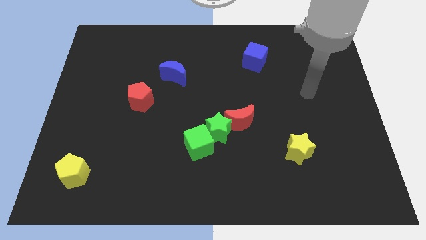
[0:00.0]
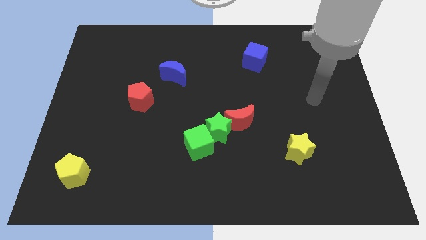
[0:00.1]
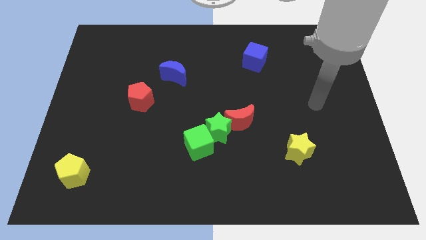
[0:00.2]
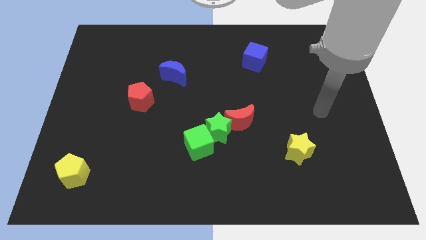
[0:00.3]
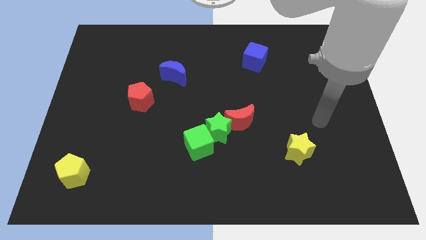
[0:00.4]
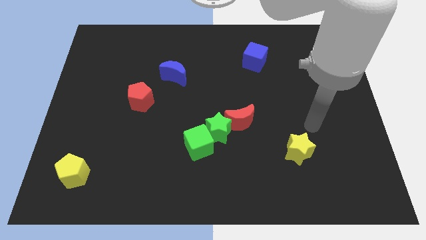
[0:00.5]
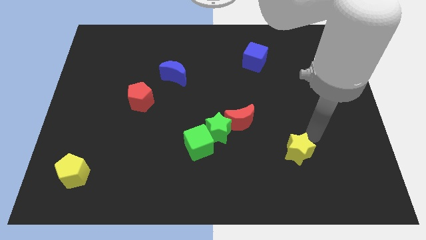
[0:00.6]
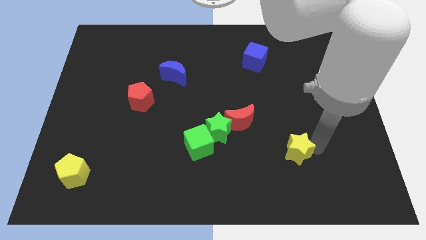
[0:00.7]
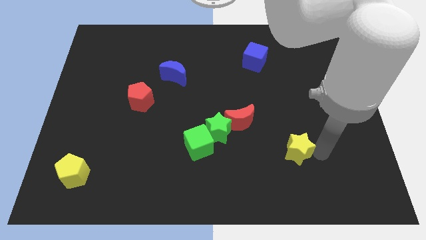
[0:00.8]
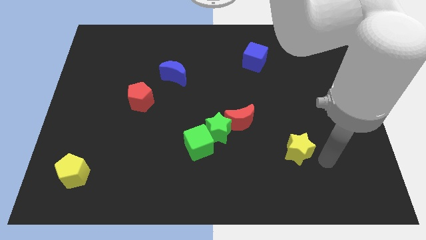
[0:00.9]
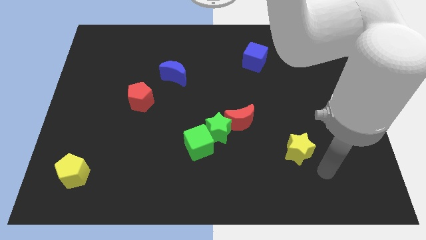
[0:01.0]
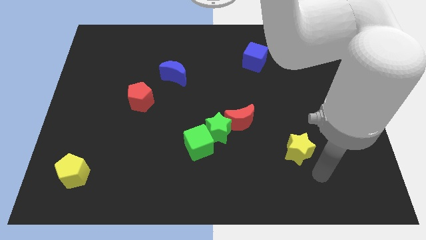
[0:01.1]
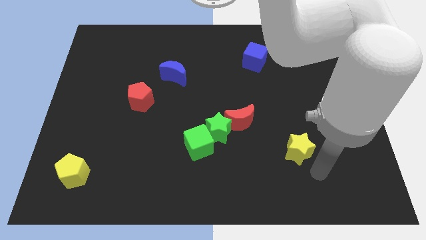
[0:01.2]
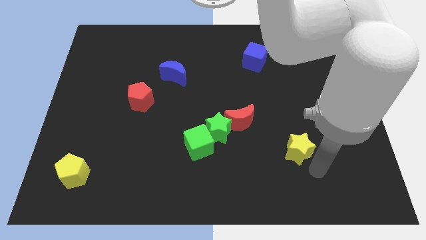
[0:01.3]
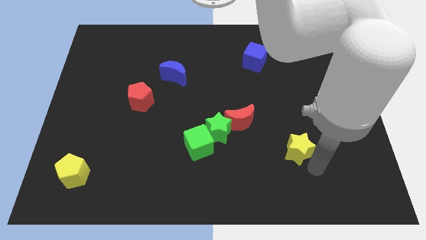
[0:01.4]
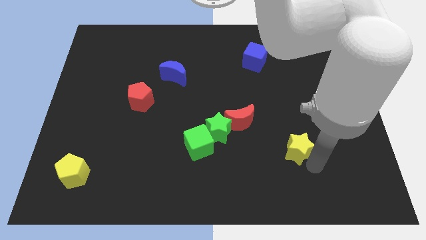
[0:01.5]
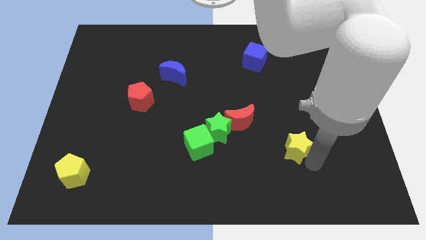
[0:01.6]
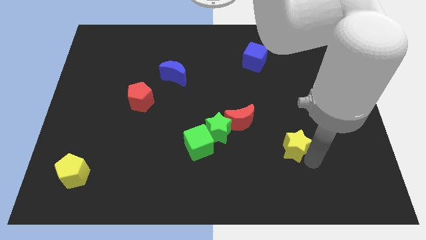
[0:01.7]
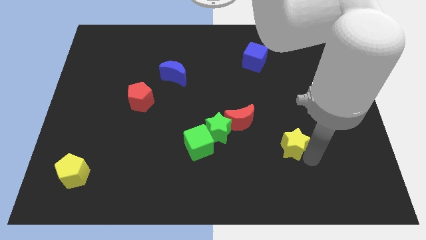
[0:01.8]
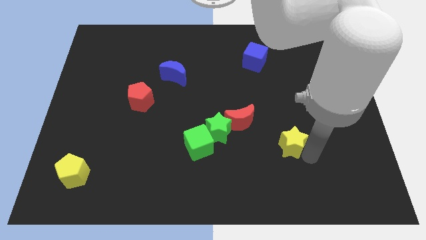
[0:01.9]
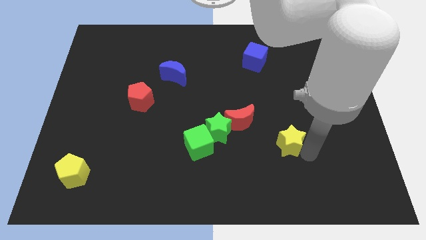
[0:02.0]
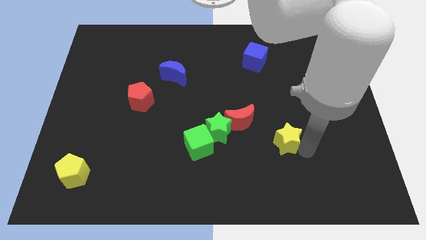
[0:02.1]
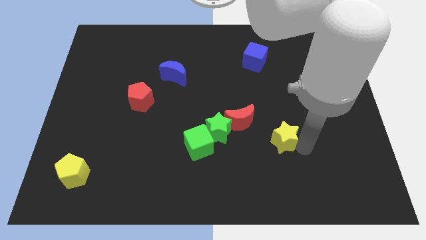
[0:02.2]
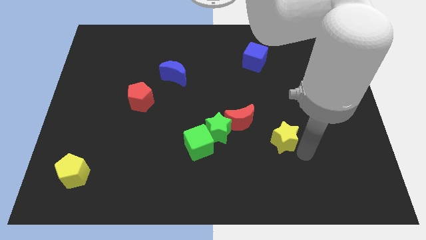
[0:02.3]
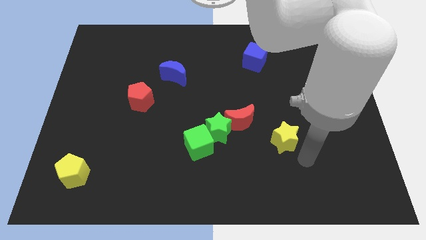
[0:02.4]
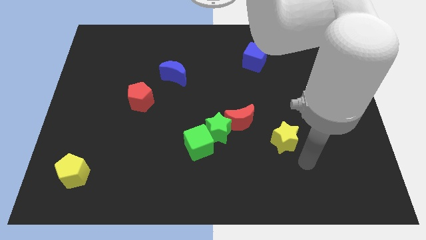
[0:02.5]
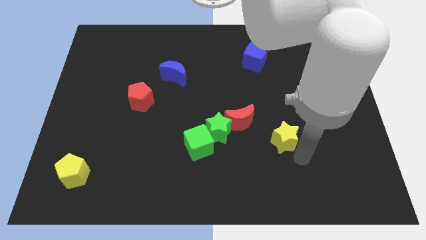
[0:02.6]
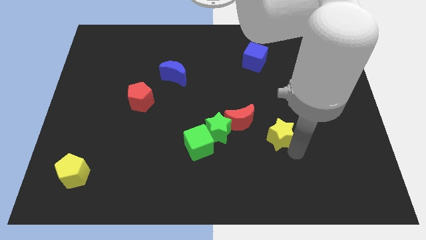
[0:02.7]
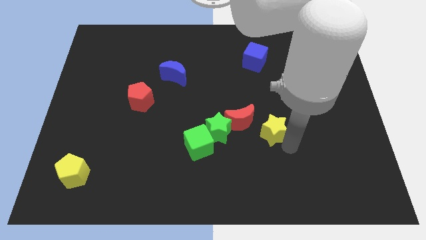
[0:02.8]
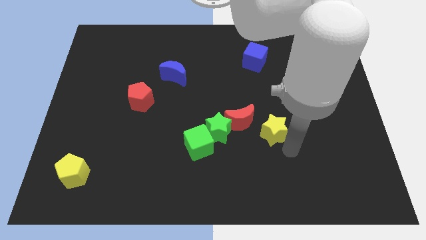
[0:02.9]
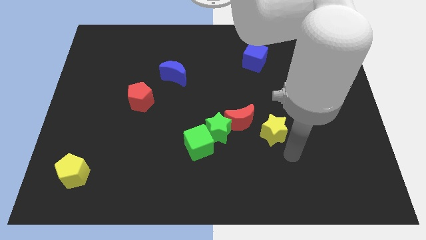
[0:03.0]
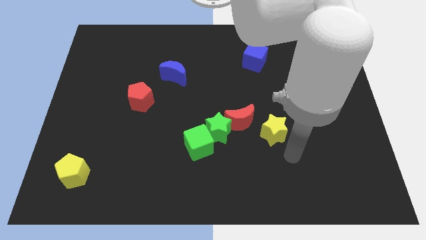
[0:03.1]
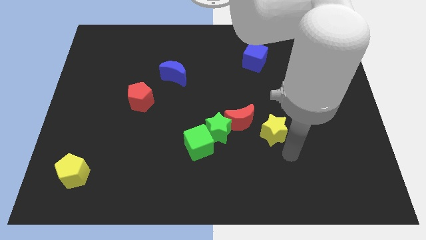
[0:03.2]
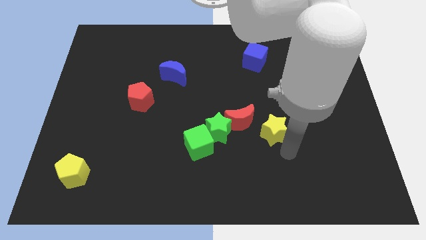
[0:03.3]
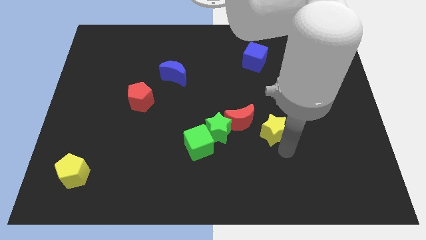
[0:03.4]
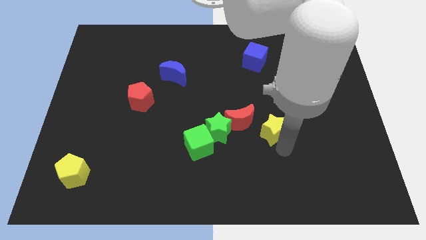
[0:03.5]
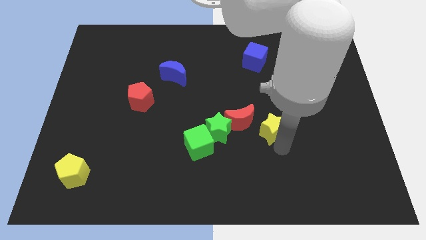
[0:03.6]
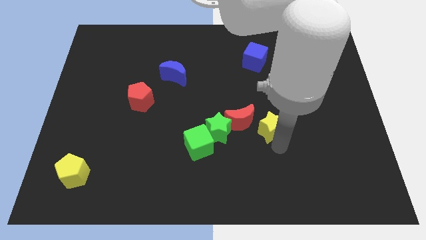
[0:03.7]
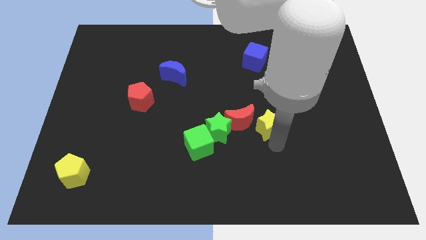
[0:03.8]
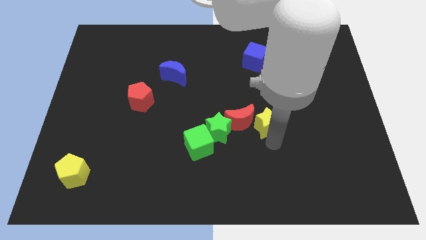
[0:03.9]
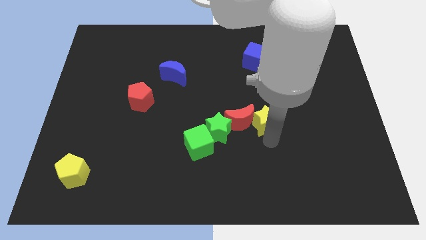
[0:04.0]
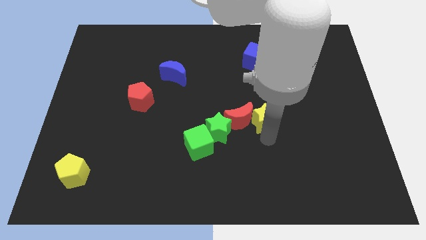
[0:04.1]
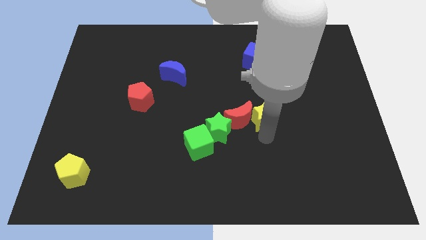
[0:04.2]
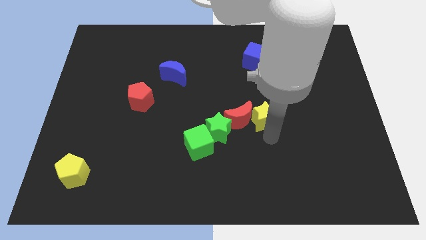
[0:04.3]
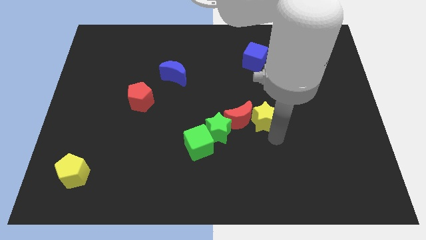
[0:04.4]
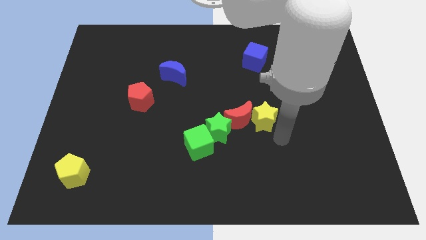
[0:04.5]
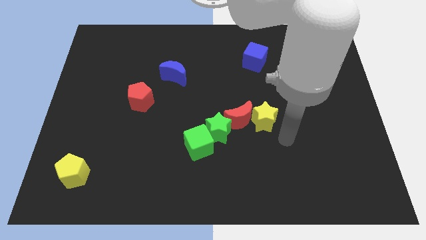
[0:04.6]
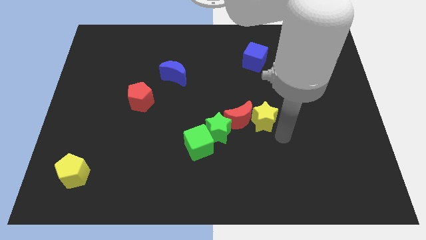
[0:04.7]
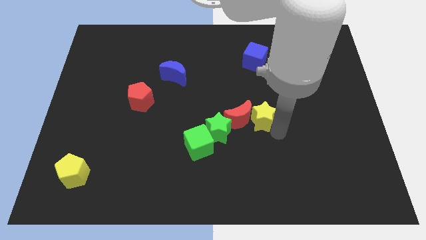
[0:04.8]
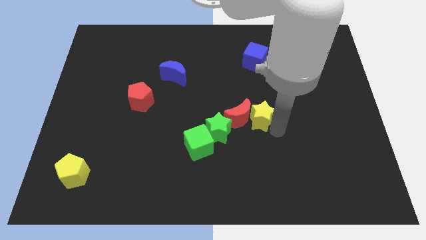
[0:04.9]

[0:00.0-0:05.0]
put the yellow star to the center of the board

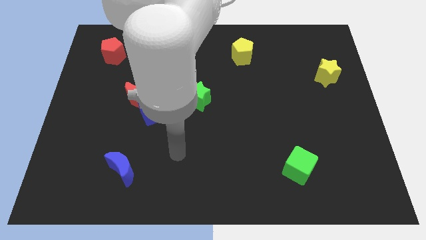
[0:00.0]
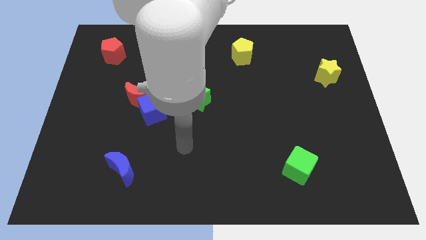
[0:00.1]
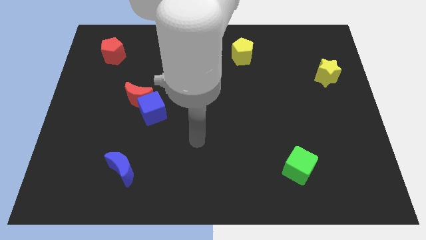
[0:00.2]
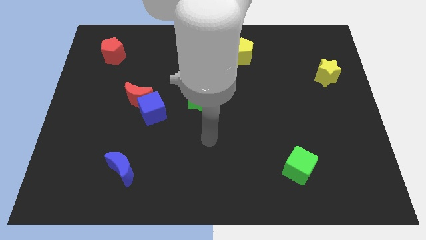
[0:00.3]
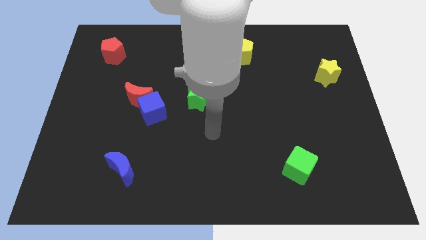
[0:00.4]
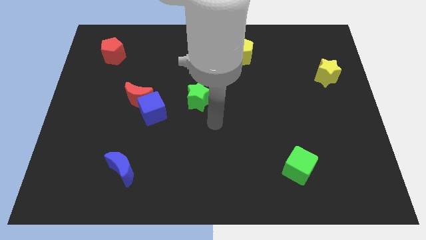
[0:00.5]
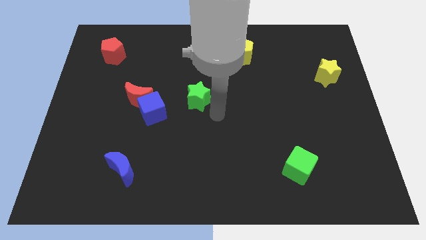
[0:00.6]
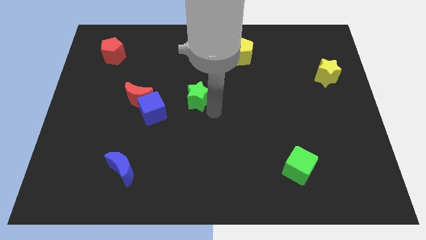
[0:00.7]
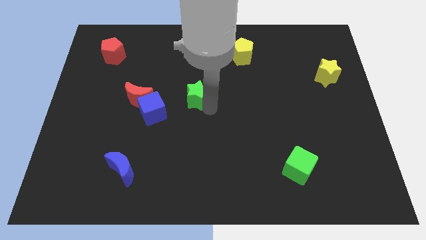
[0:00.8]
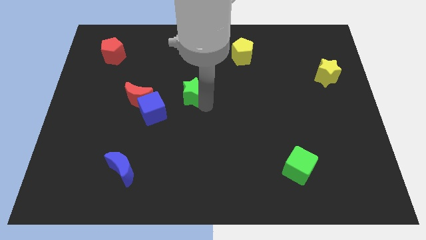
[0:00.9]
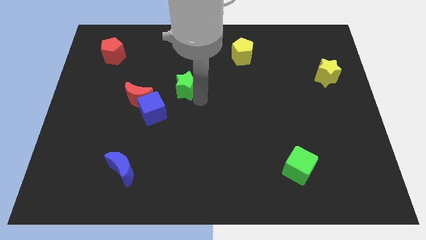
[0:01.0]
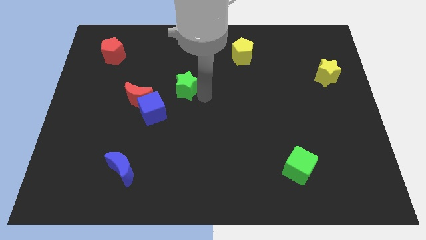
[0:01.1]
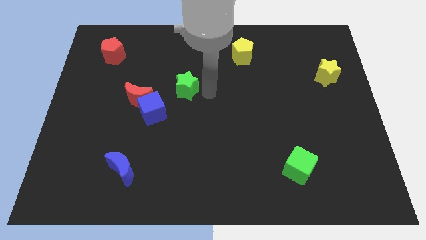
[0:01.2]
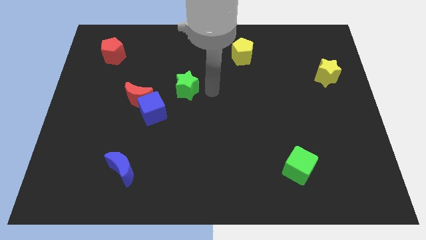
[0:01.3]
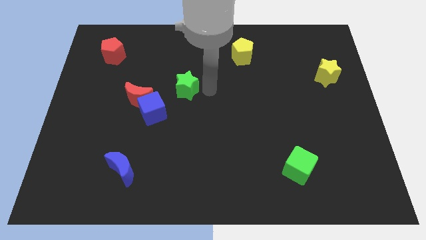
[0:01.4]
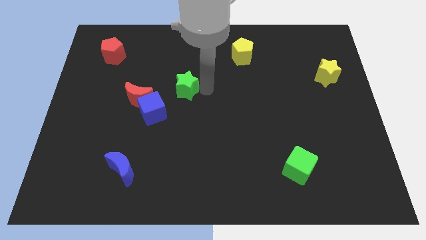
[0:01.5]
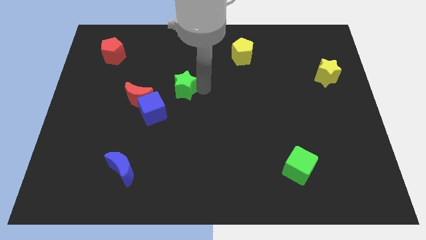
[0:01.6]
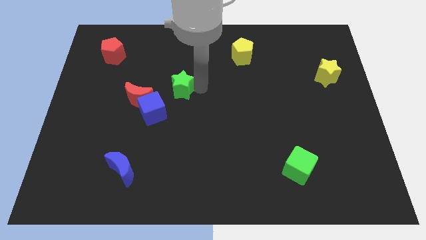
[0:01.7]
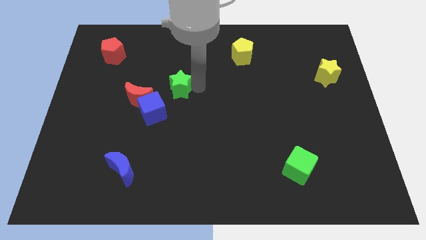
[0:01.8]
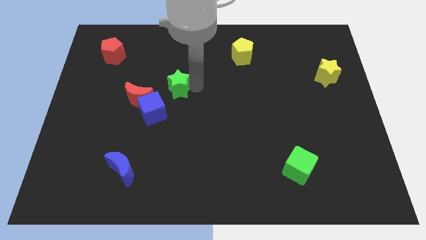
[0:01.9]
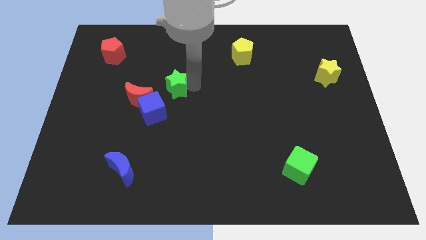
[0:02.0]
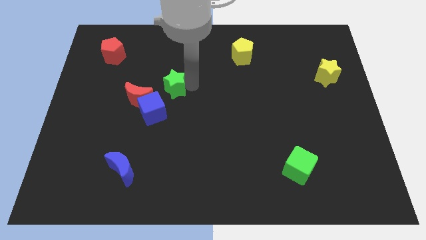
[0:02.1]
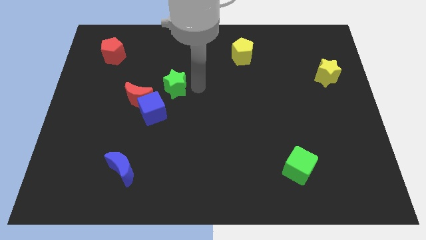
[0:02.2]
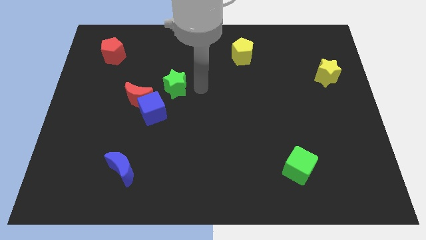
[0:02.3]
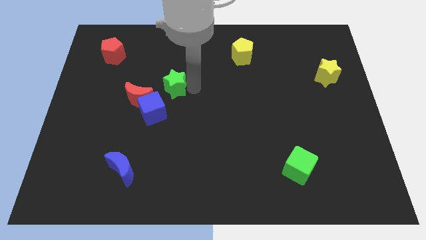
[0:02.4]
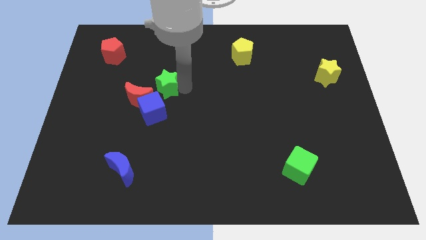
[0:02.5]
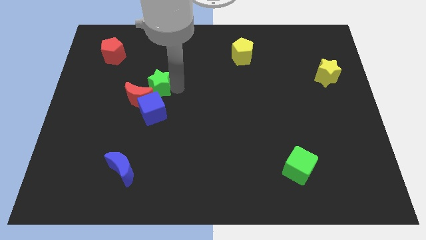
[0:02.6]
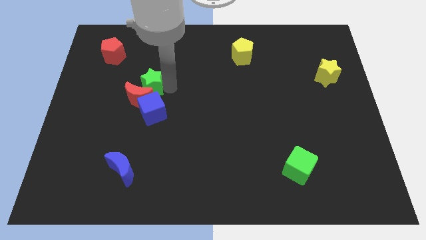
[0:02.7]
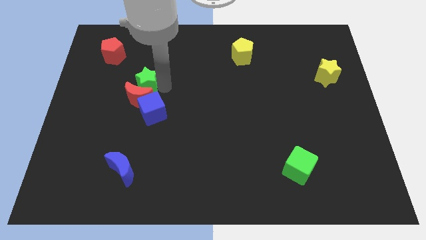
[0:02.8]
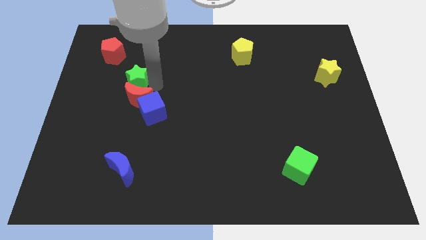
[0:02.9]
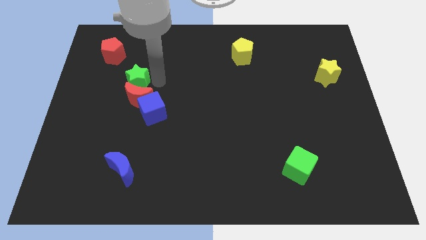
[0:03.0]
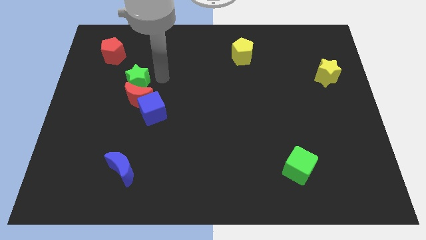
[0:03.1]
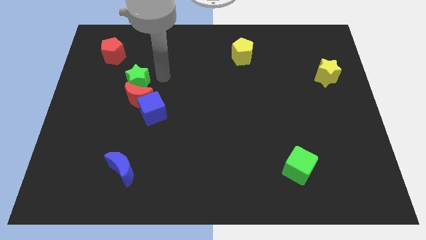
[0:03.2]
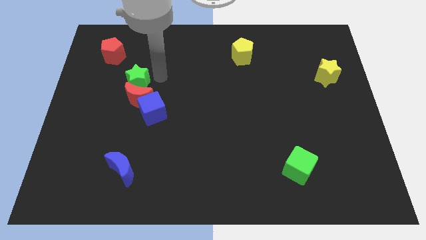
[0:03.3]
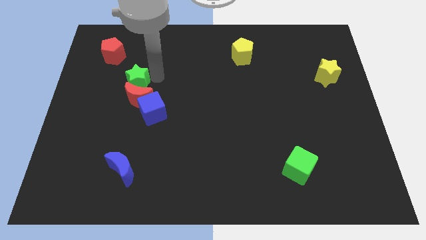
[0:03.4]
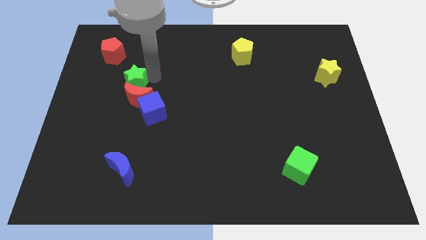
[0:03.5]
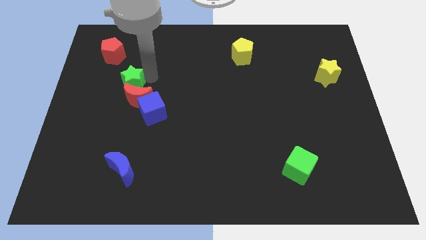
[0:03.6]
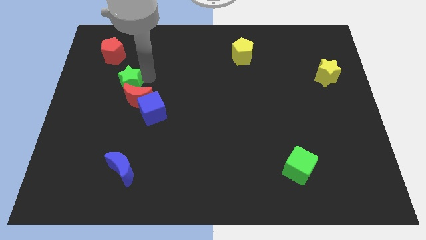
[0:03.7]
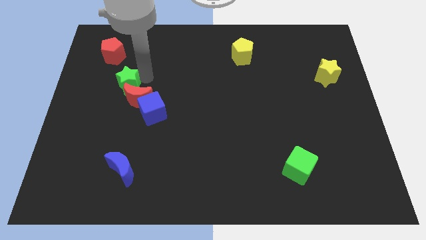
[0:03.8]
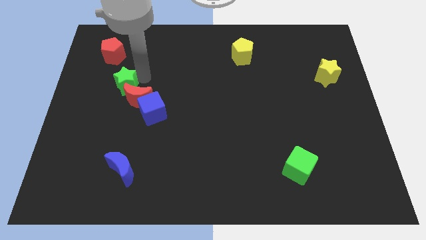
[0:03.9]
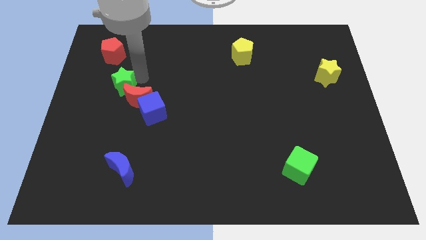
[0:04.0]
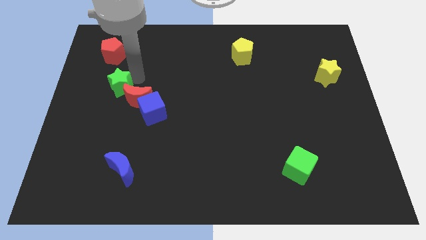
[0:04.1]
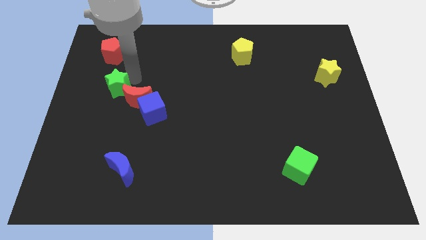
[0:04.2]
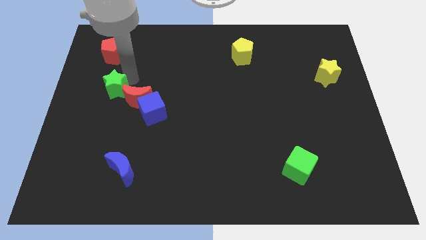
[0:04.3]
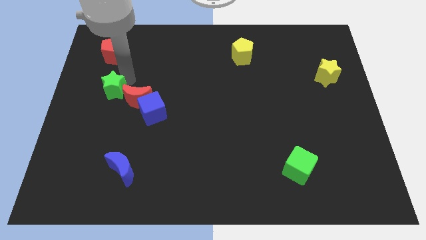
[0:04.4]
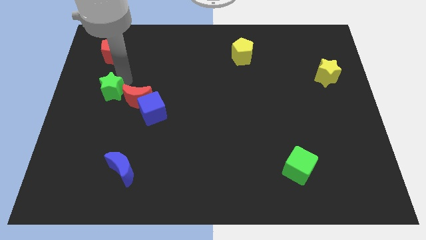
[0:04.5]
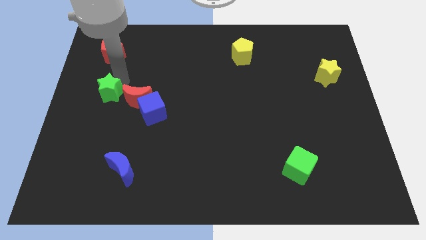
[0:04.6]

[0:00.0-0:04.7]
slide the green star to the center left
